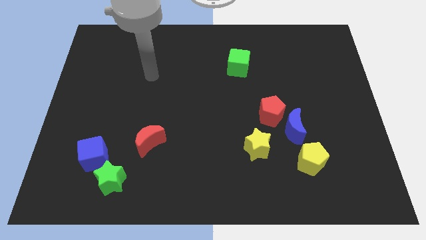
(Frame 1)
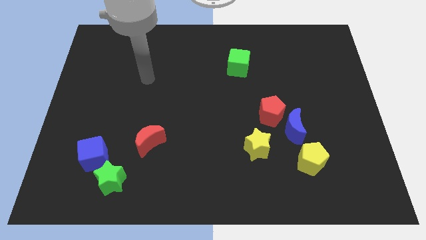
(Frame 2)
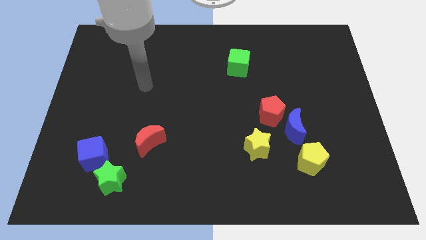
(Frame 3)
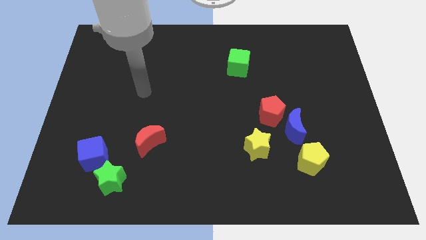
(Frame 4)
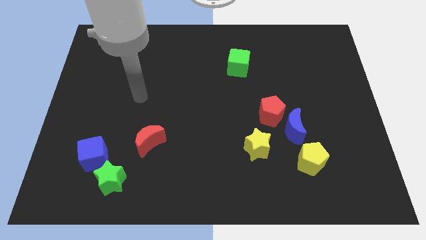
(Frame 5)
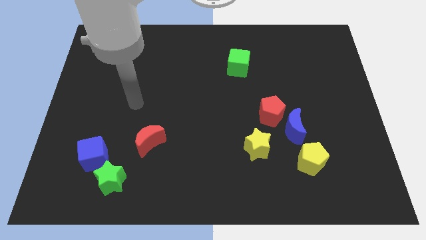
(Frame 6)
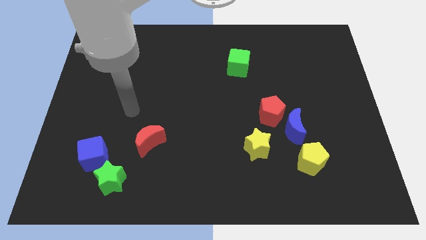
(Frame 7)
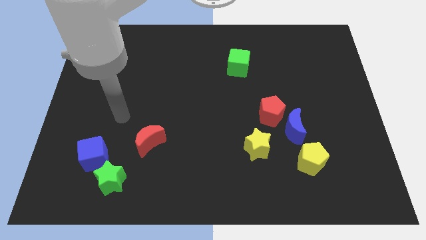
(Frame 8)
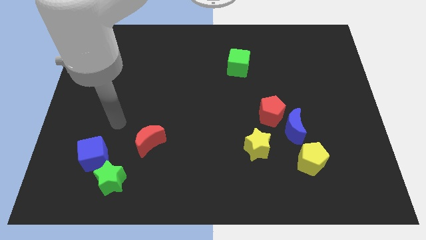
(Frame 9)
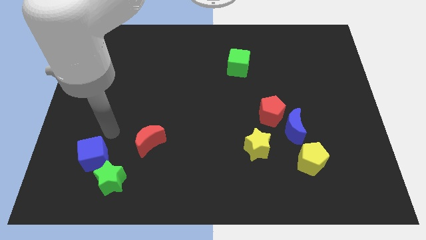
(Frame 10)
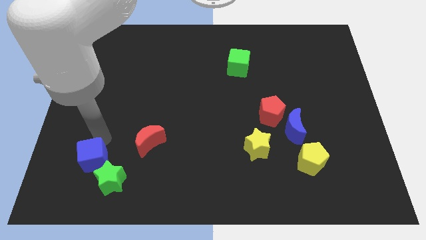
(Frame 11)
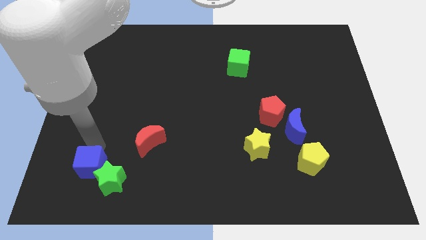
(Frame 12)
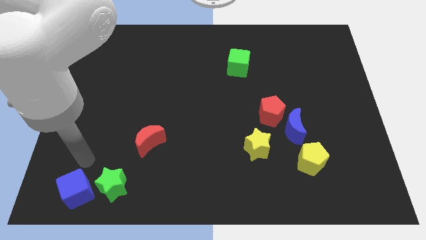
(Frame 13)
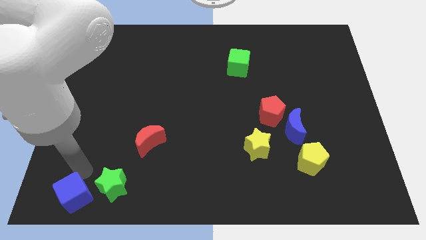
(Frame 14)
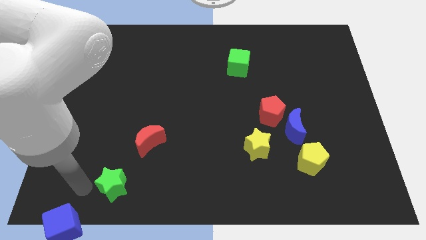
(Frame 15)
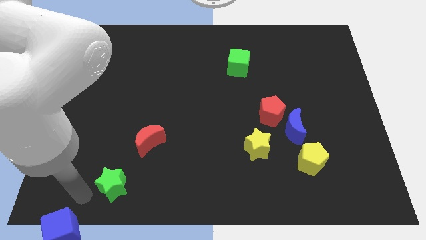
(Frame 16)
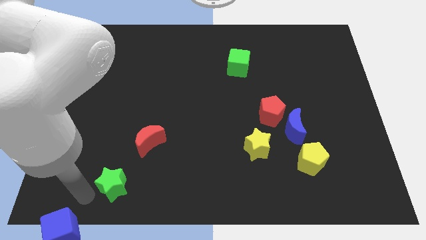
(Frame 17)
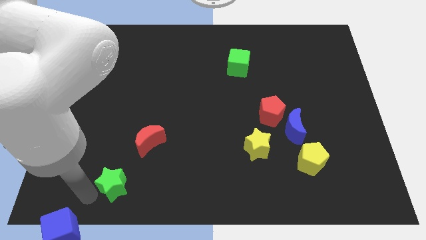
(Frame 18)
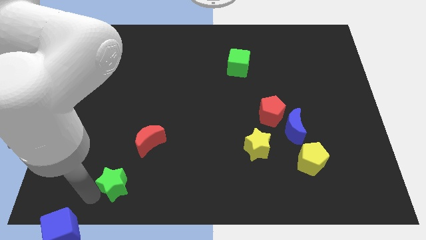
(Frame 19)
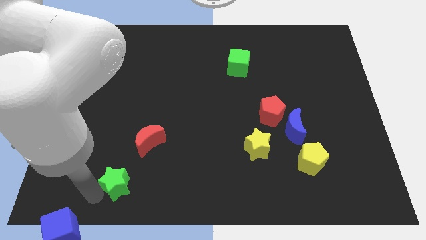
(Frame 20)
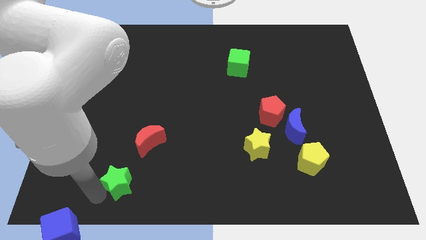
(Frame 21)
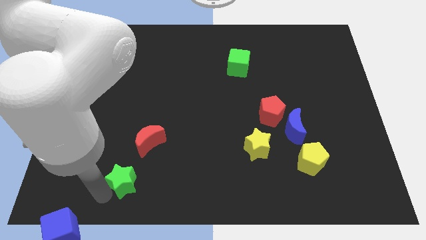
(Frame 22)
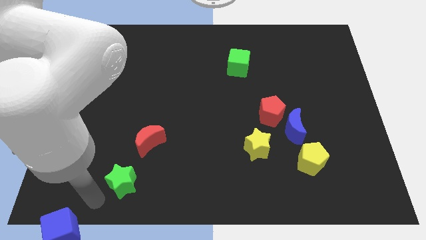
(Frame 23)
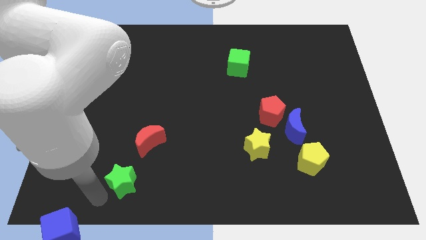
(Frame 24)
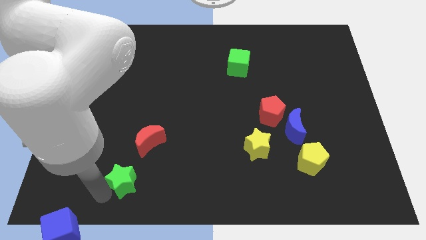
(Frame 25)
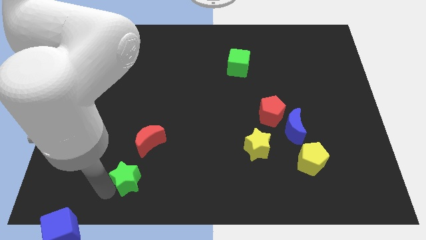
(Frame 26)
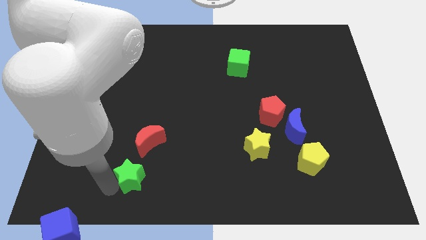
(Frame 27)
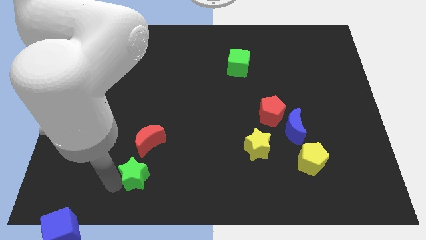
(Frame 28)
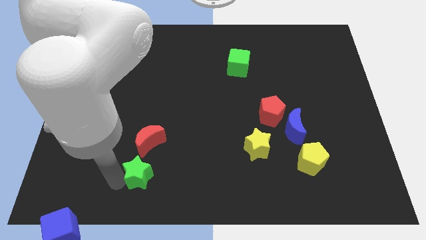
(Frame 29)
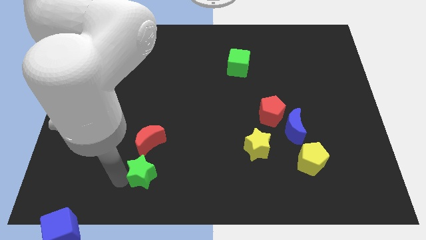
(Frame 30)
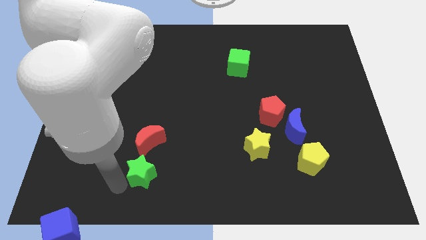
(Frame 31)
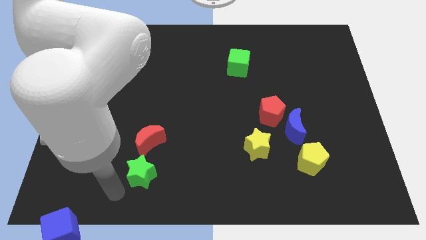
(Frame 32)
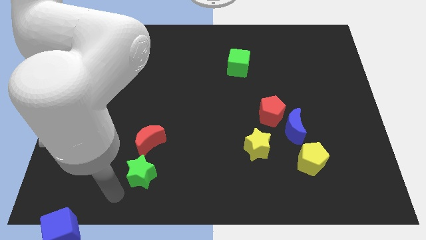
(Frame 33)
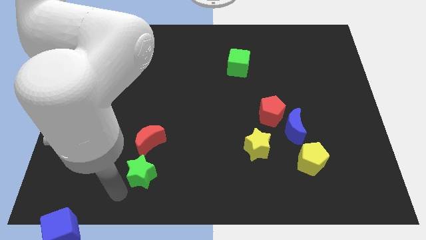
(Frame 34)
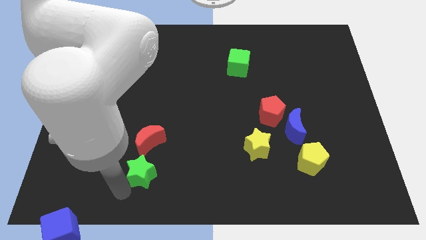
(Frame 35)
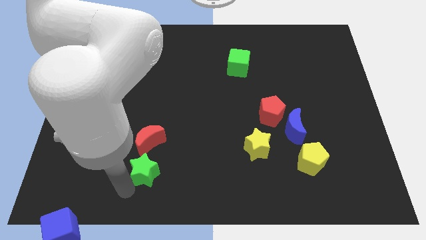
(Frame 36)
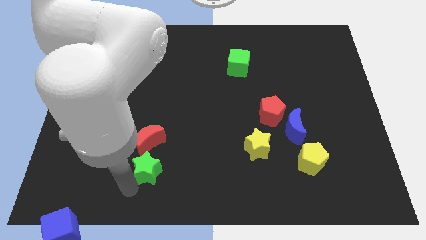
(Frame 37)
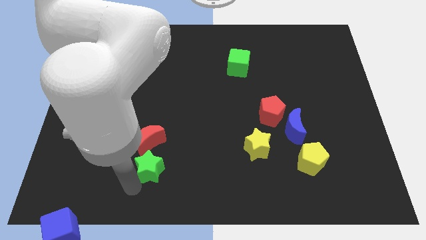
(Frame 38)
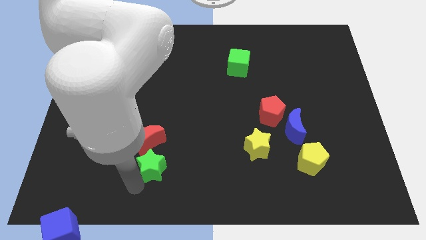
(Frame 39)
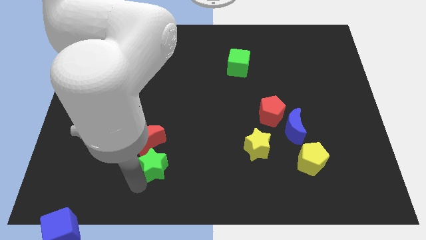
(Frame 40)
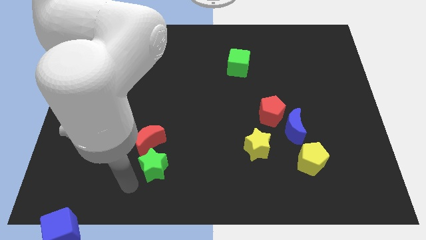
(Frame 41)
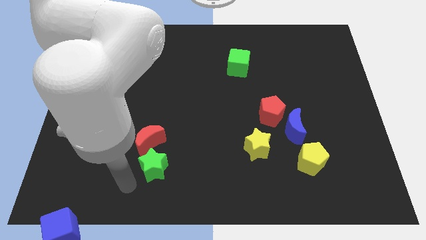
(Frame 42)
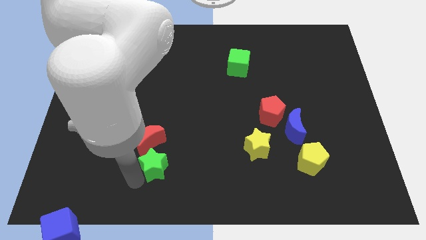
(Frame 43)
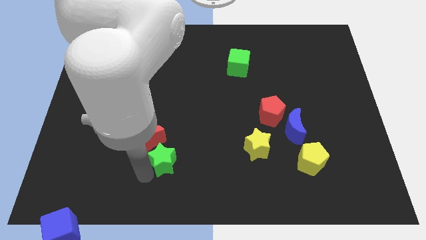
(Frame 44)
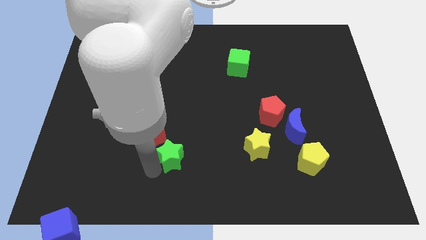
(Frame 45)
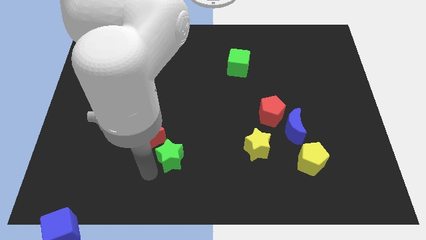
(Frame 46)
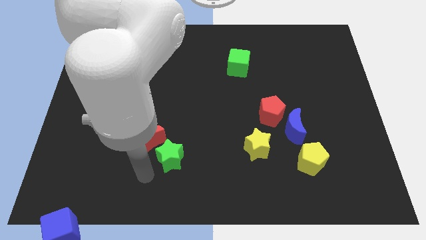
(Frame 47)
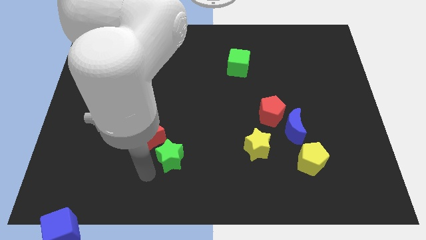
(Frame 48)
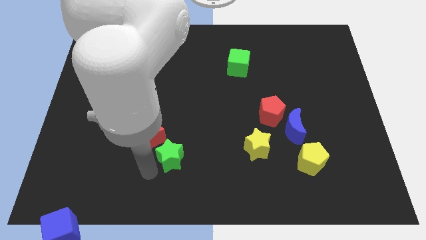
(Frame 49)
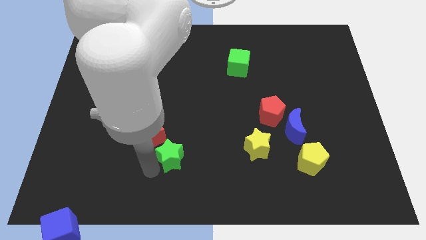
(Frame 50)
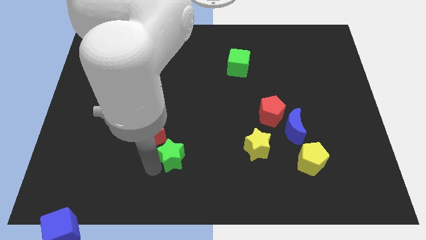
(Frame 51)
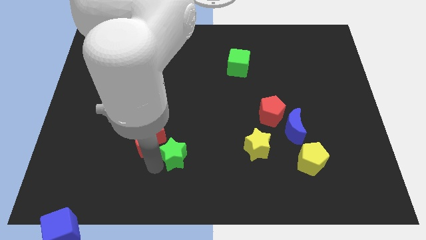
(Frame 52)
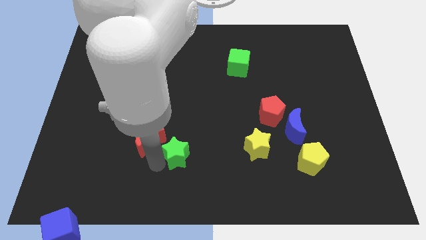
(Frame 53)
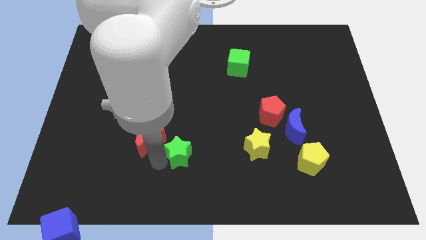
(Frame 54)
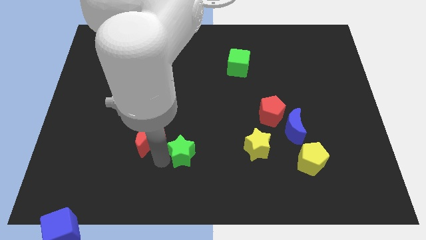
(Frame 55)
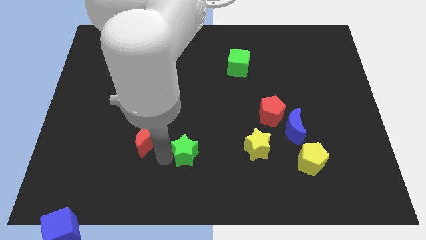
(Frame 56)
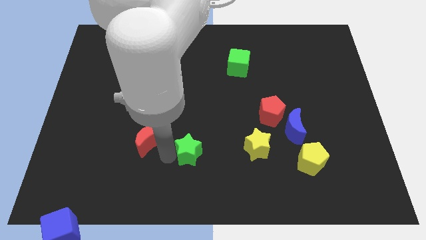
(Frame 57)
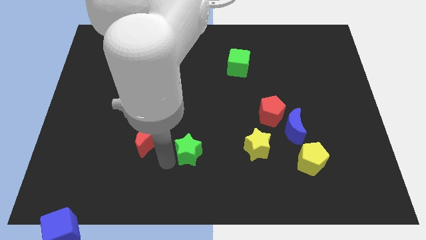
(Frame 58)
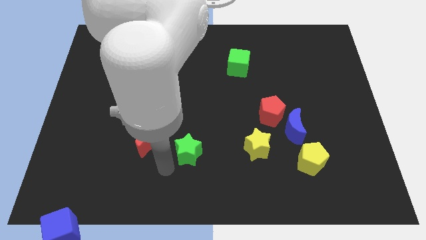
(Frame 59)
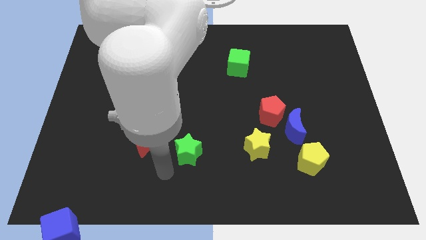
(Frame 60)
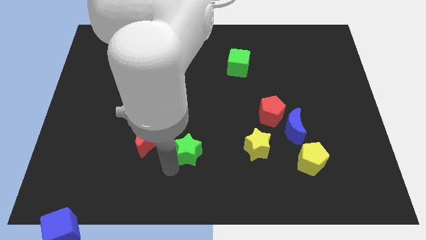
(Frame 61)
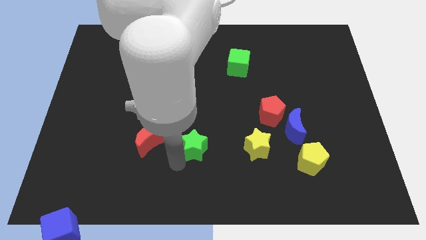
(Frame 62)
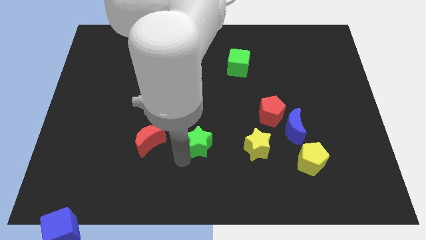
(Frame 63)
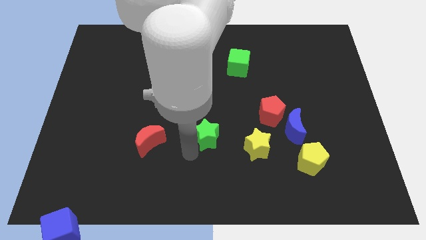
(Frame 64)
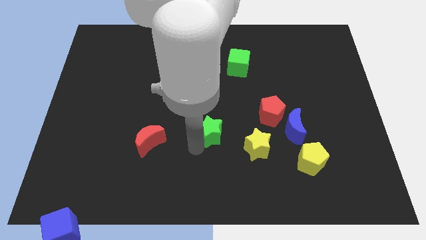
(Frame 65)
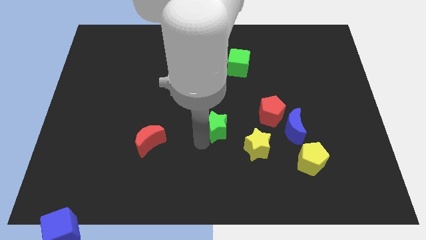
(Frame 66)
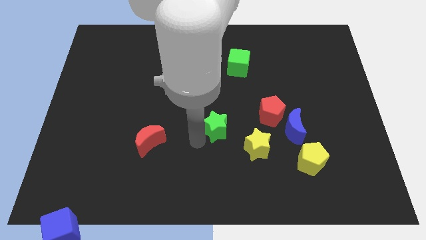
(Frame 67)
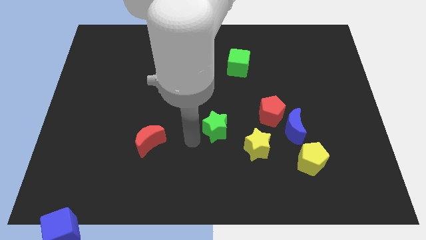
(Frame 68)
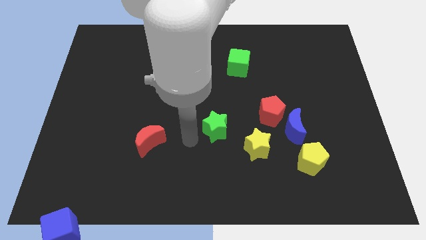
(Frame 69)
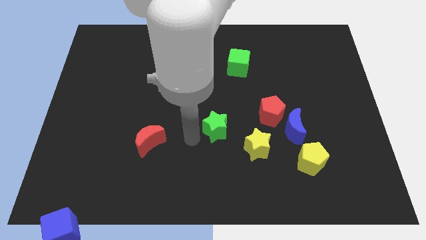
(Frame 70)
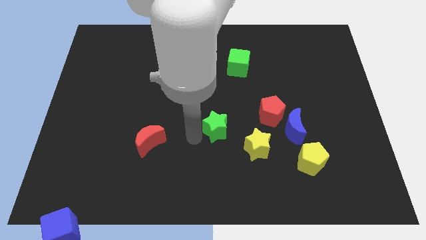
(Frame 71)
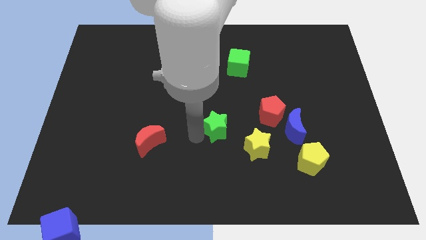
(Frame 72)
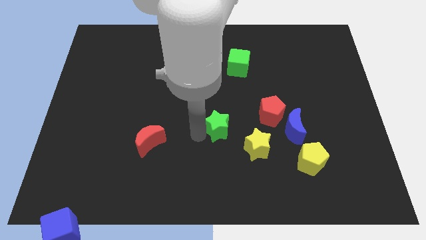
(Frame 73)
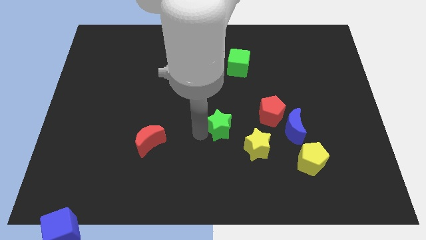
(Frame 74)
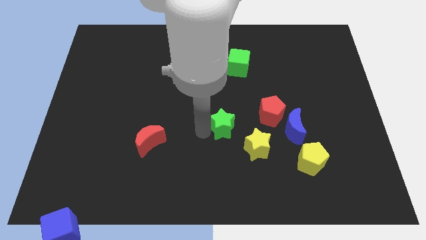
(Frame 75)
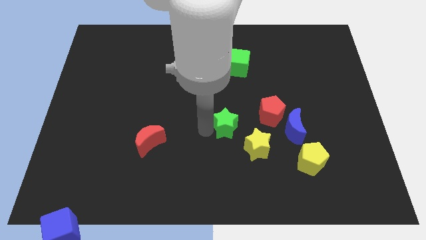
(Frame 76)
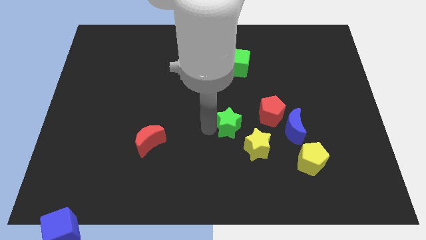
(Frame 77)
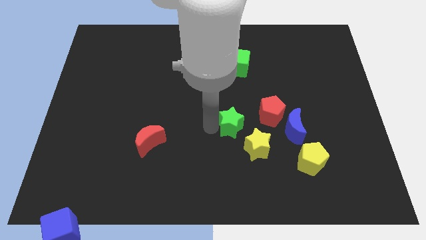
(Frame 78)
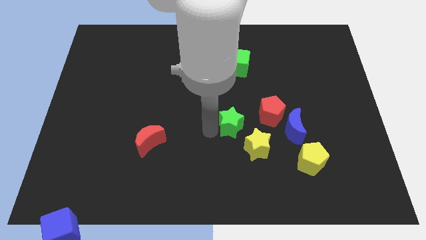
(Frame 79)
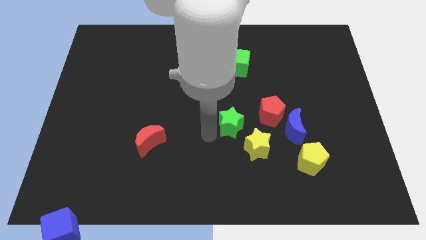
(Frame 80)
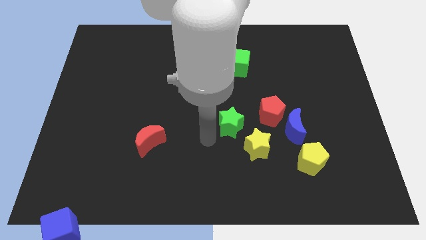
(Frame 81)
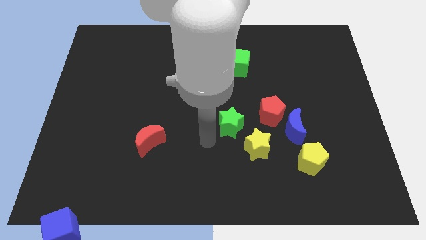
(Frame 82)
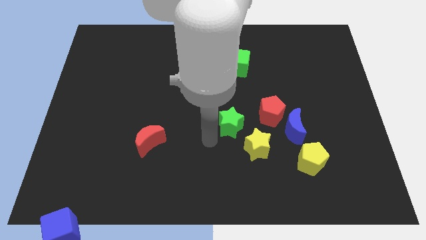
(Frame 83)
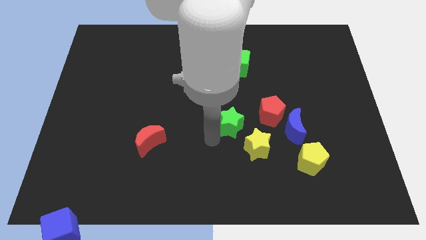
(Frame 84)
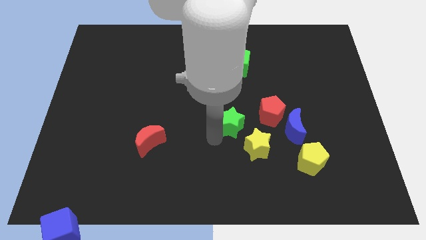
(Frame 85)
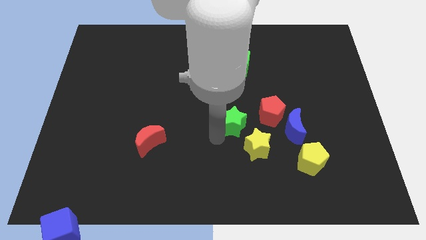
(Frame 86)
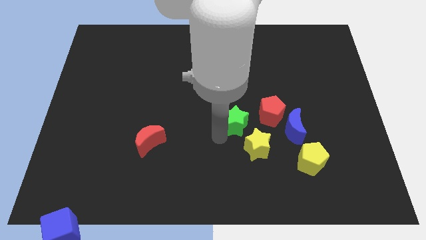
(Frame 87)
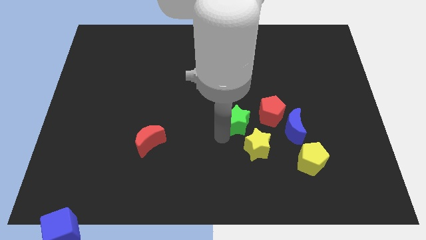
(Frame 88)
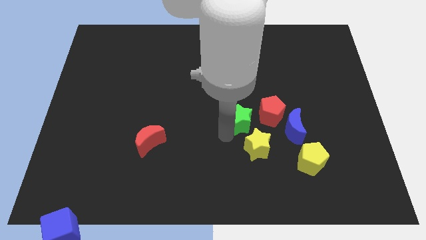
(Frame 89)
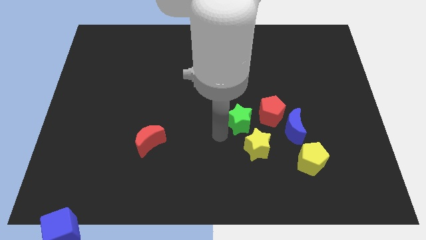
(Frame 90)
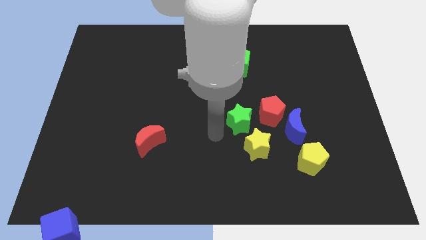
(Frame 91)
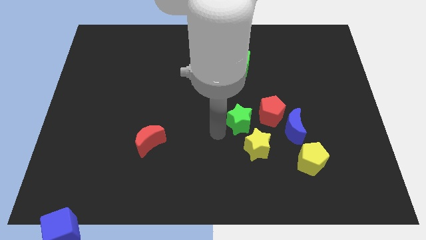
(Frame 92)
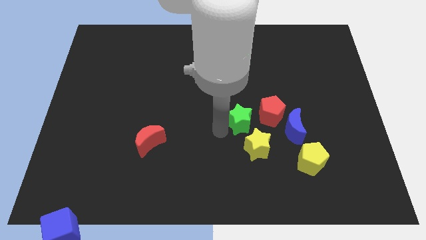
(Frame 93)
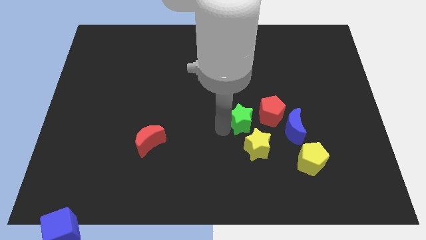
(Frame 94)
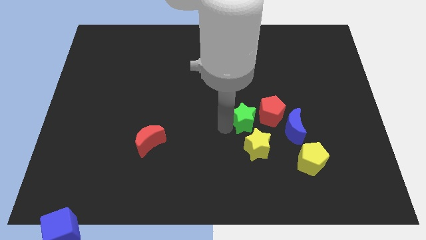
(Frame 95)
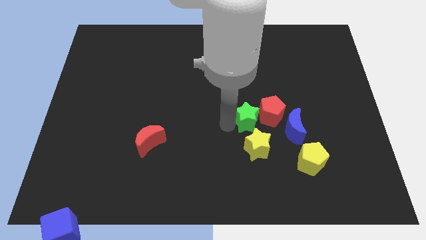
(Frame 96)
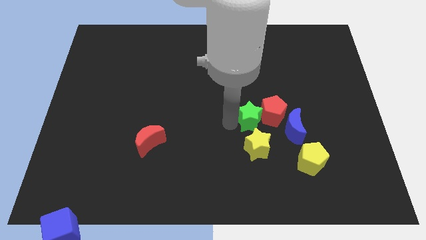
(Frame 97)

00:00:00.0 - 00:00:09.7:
push the green star diagonally up and to the left of the blue moon
